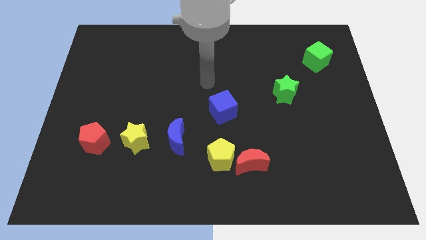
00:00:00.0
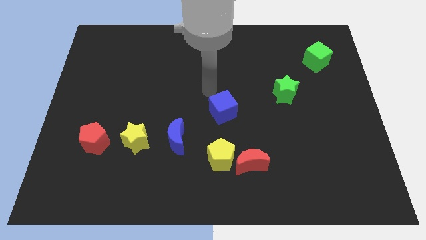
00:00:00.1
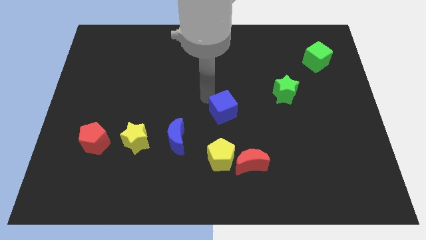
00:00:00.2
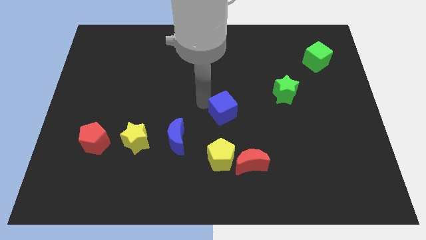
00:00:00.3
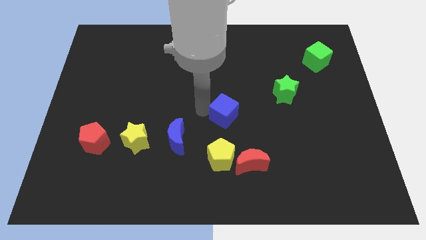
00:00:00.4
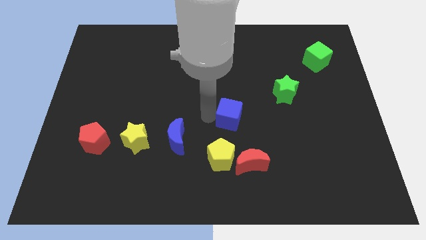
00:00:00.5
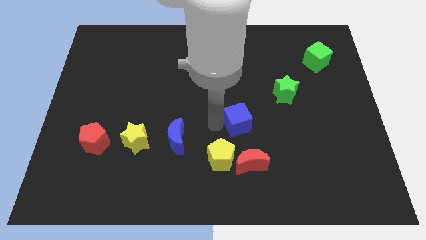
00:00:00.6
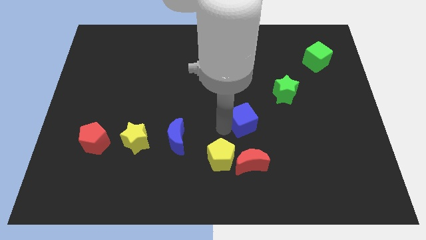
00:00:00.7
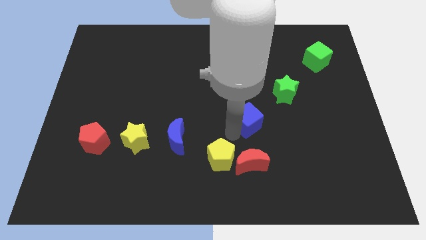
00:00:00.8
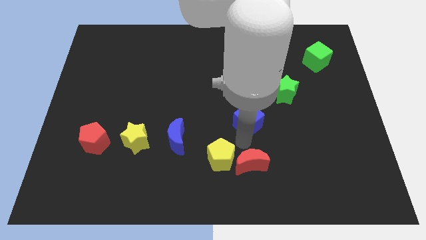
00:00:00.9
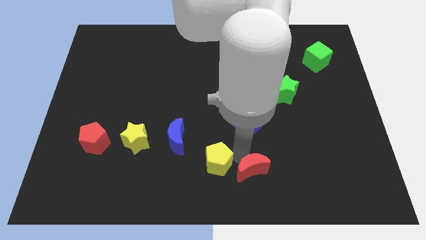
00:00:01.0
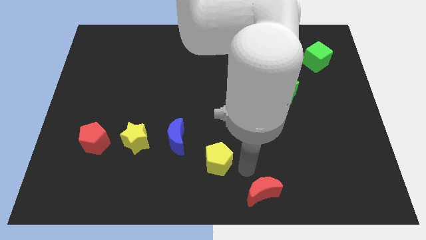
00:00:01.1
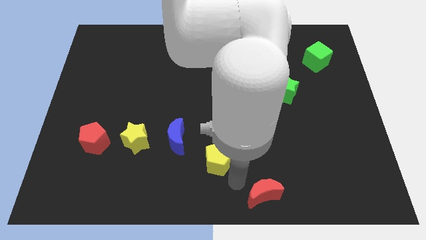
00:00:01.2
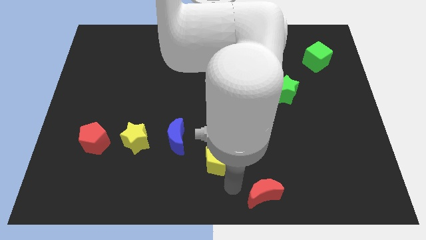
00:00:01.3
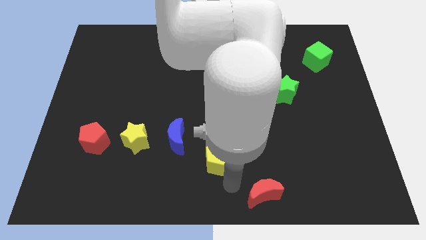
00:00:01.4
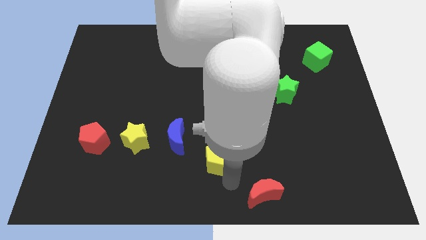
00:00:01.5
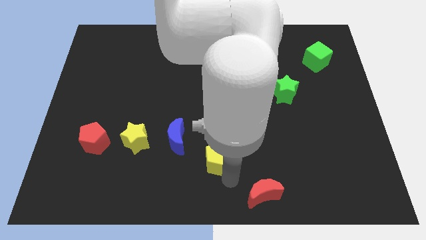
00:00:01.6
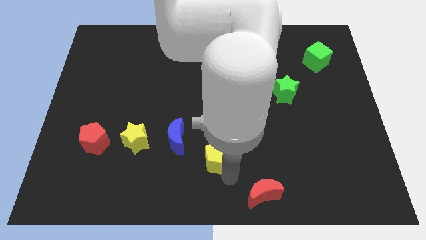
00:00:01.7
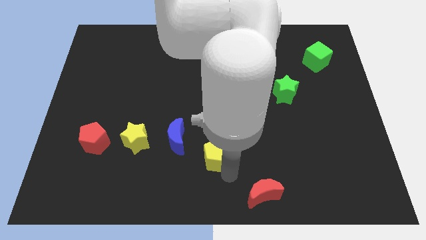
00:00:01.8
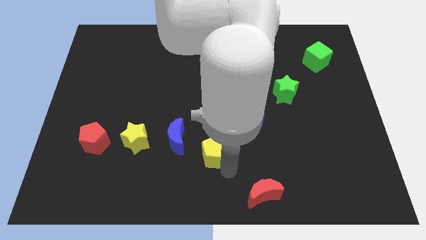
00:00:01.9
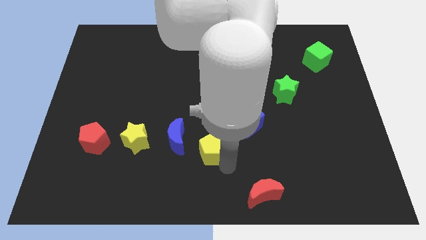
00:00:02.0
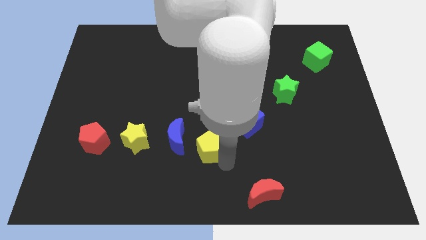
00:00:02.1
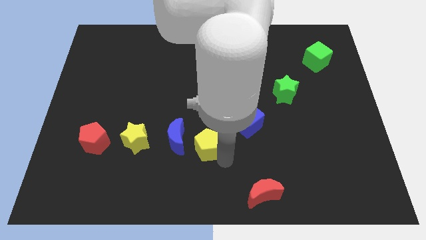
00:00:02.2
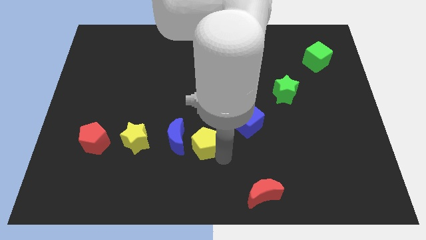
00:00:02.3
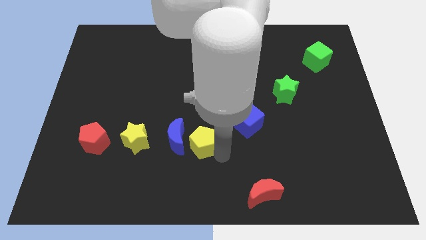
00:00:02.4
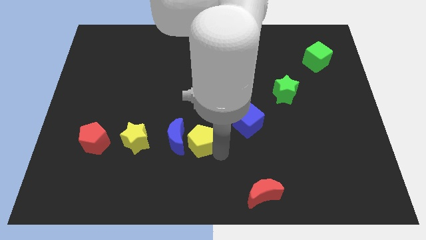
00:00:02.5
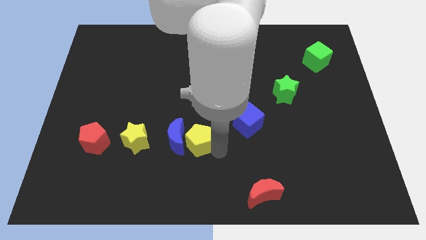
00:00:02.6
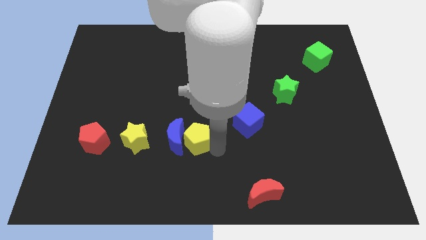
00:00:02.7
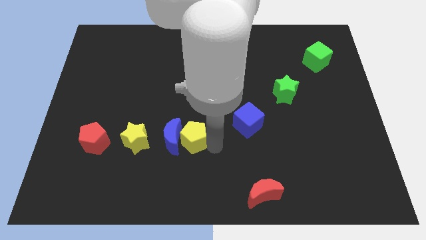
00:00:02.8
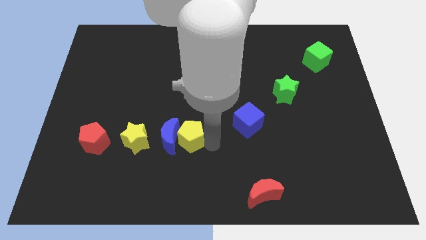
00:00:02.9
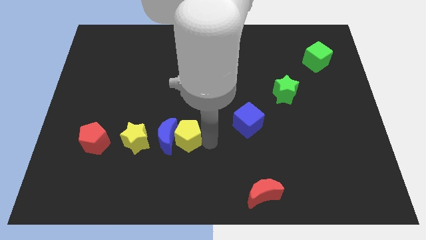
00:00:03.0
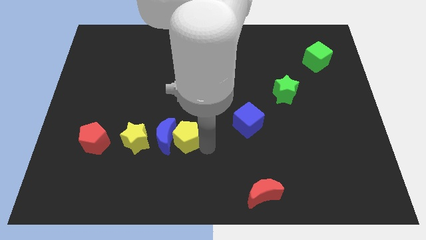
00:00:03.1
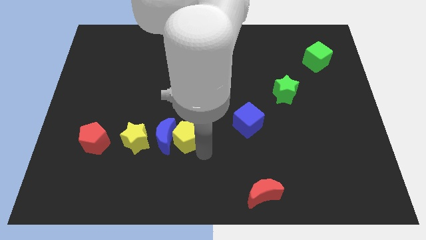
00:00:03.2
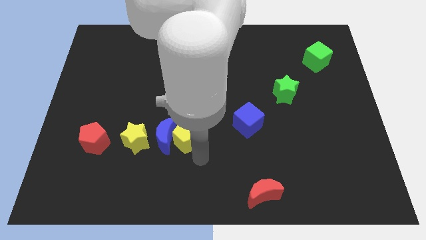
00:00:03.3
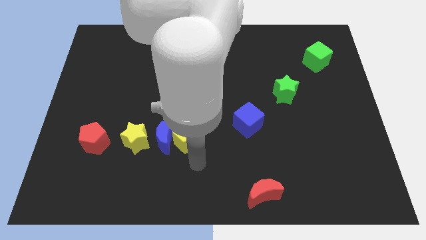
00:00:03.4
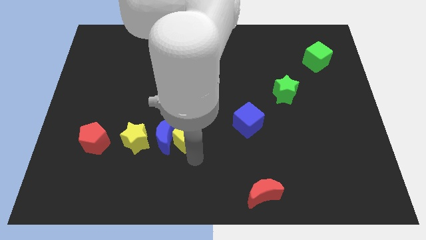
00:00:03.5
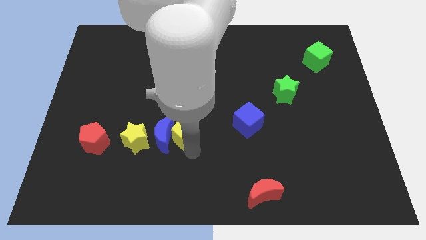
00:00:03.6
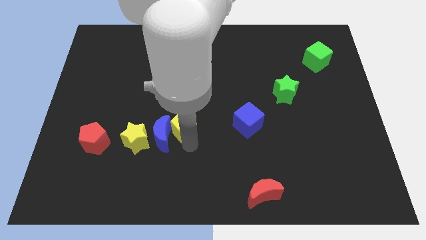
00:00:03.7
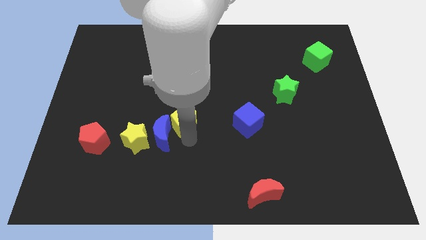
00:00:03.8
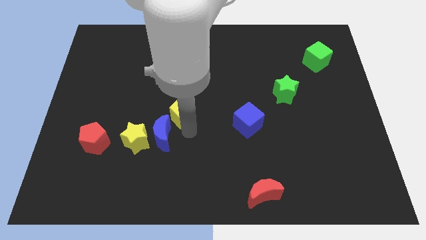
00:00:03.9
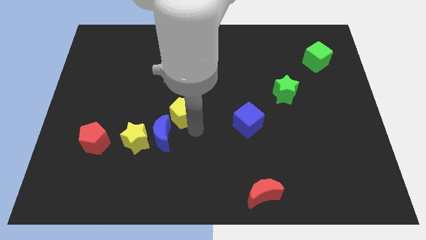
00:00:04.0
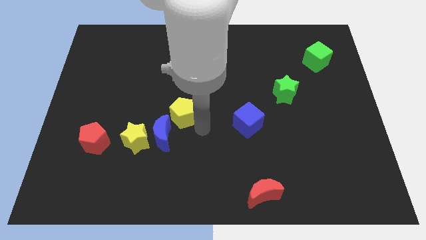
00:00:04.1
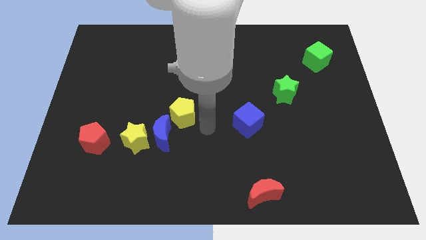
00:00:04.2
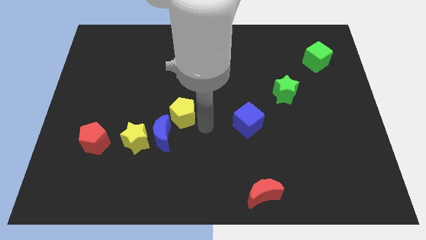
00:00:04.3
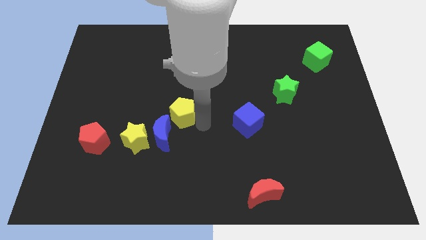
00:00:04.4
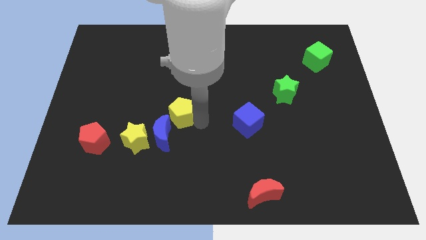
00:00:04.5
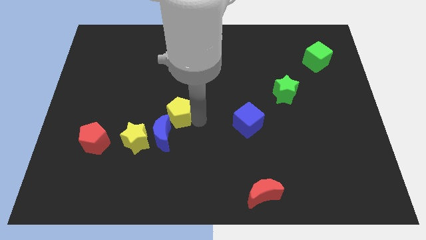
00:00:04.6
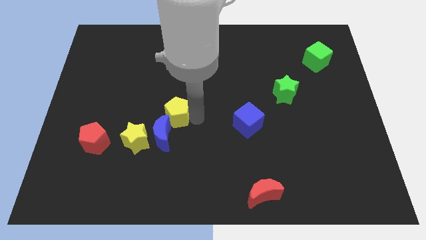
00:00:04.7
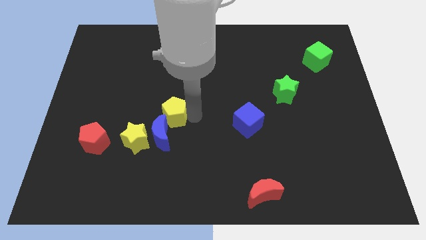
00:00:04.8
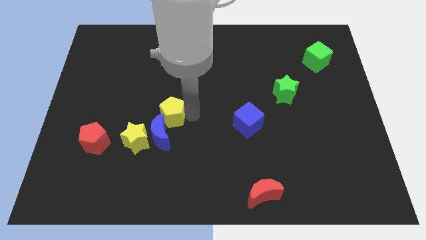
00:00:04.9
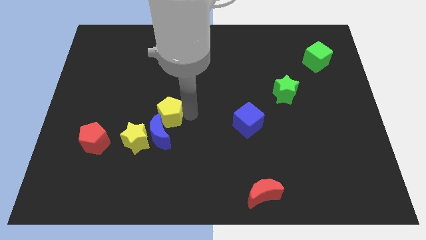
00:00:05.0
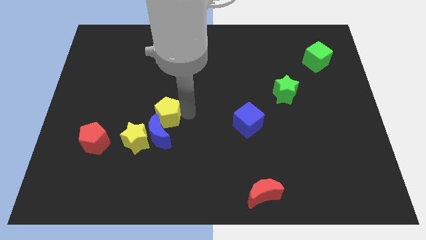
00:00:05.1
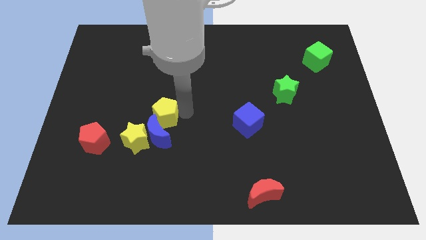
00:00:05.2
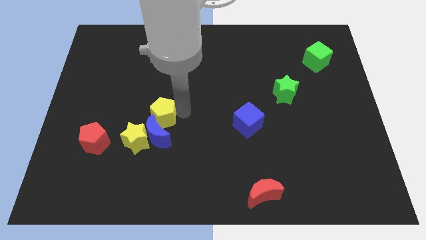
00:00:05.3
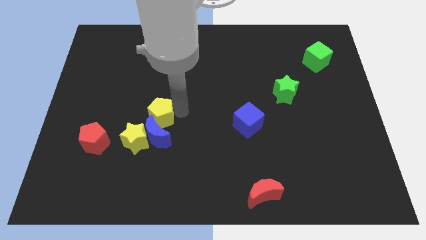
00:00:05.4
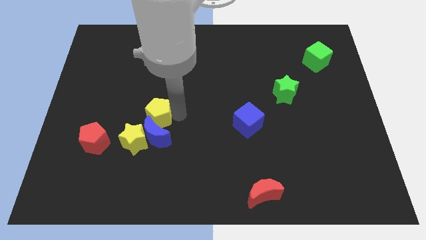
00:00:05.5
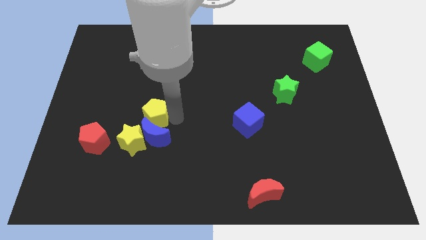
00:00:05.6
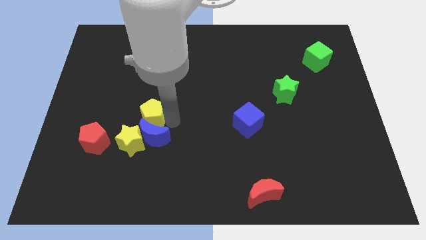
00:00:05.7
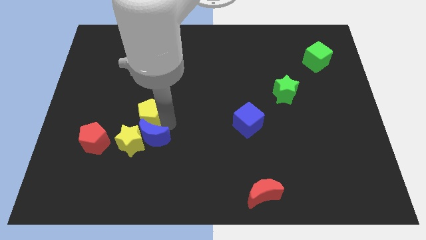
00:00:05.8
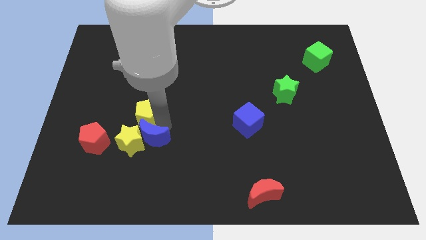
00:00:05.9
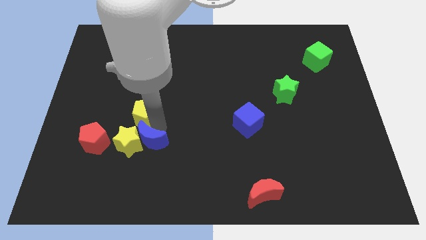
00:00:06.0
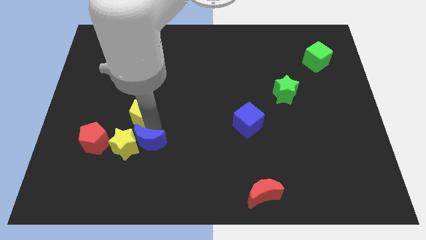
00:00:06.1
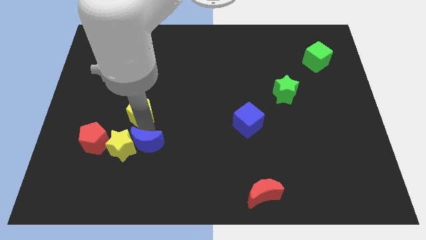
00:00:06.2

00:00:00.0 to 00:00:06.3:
slide the yellow pentagon upwards and then to the left

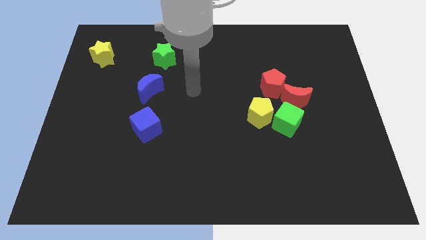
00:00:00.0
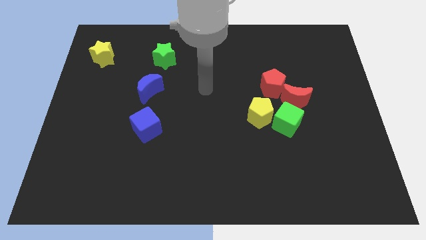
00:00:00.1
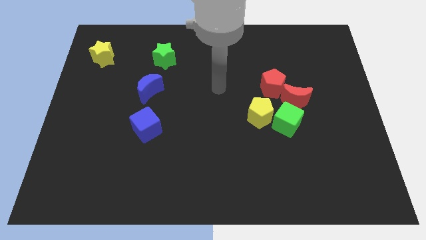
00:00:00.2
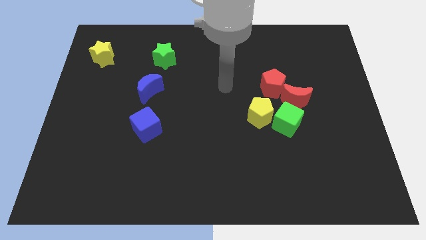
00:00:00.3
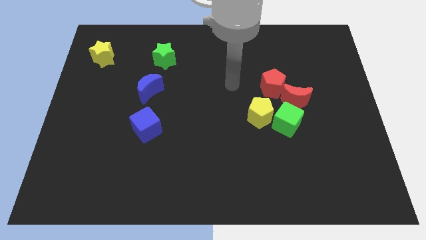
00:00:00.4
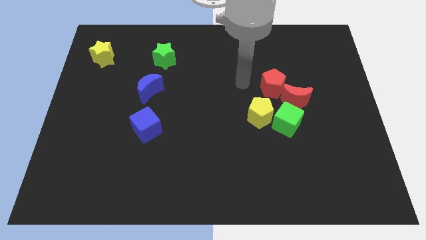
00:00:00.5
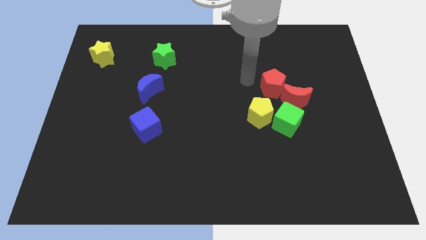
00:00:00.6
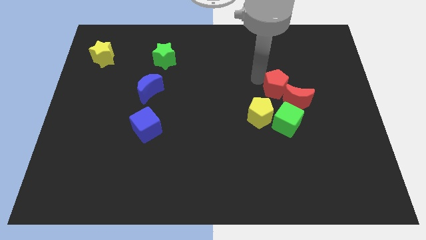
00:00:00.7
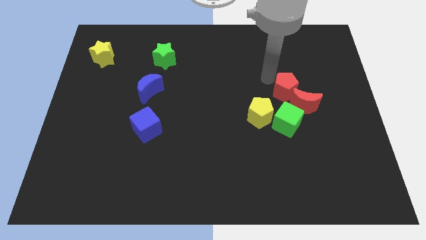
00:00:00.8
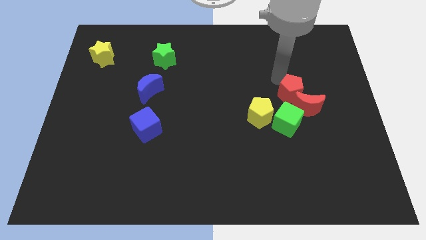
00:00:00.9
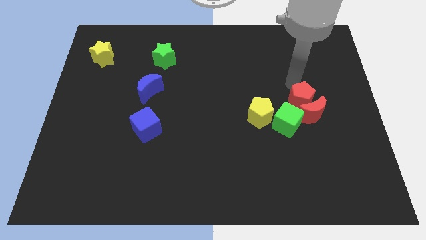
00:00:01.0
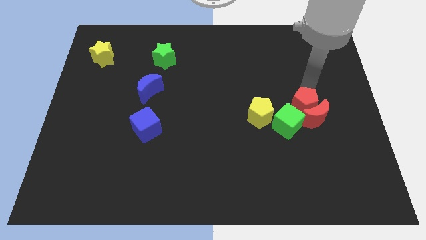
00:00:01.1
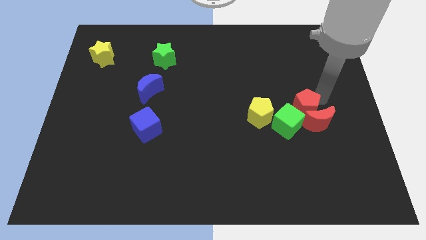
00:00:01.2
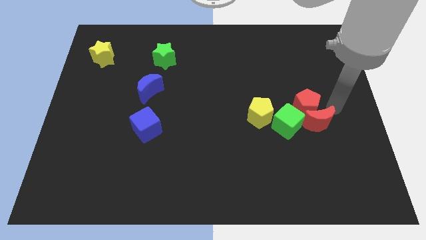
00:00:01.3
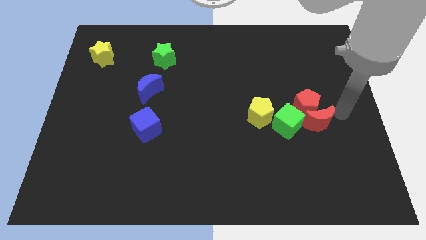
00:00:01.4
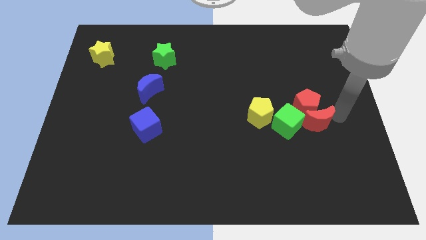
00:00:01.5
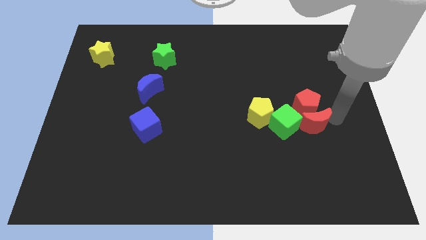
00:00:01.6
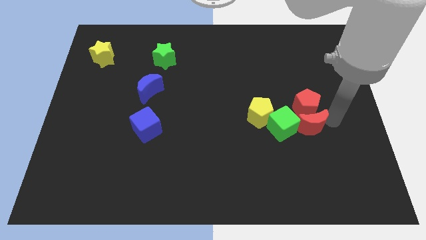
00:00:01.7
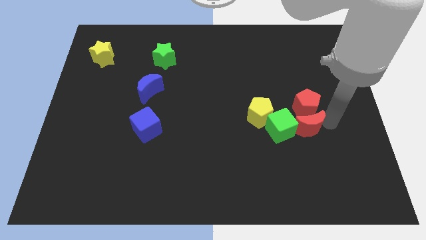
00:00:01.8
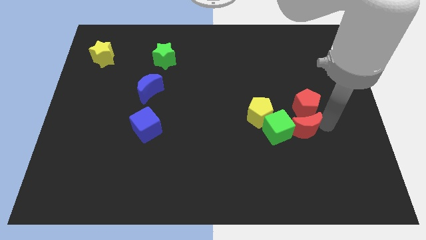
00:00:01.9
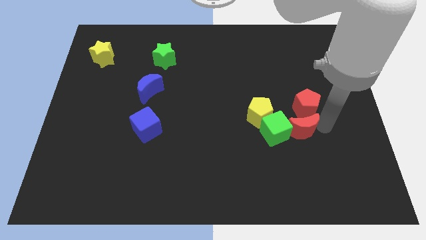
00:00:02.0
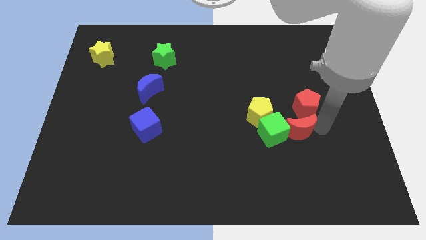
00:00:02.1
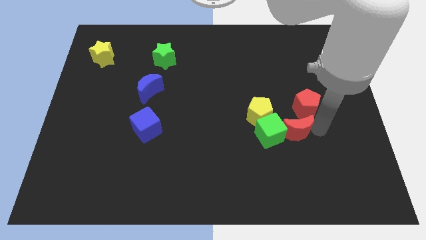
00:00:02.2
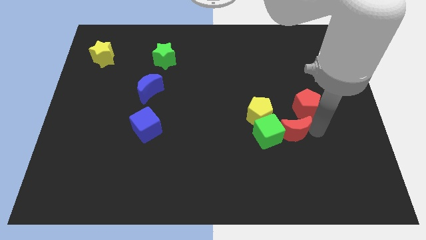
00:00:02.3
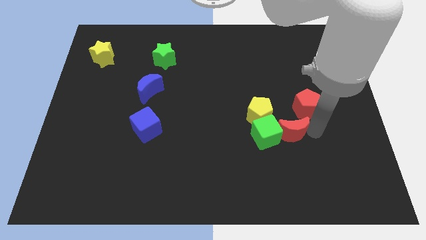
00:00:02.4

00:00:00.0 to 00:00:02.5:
push the red moon slightly diagonally downwards and to the left
